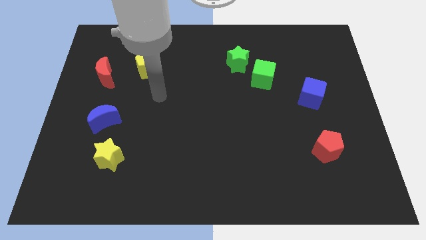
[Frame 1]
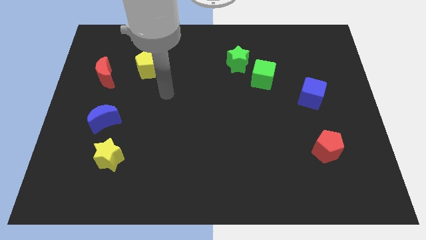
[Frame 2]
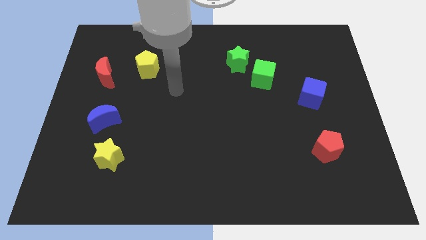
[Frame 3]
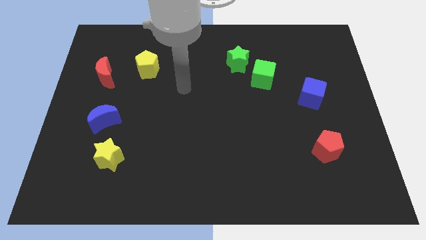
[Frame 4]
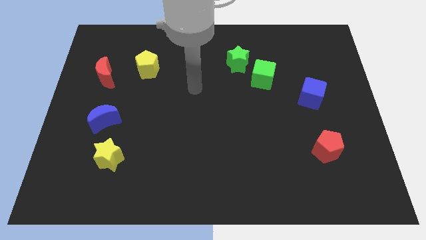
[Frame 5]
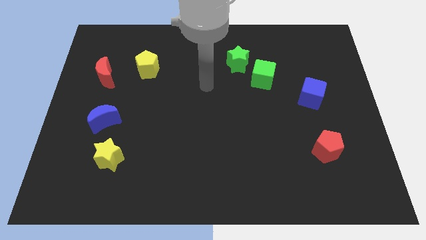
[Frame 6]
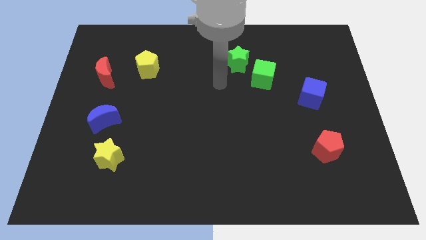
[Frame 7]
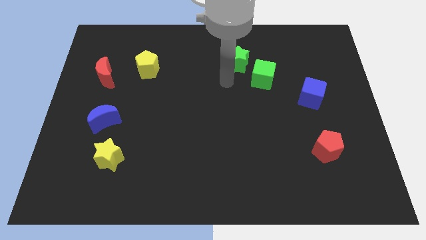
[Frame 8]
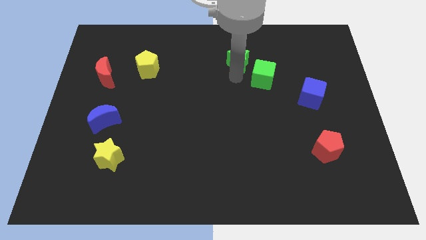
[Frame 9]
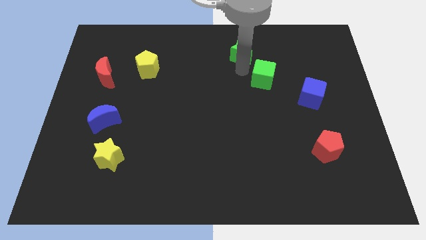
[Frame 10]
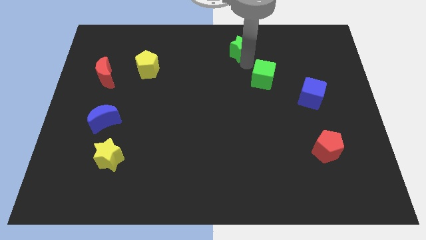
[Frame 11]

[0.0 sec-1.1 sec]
separate the green cube from the green star

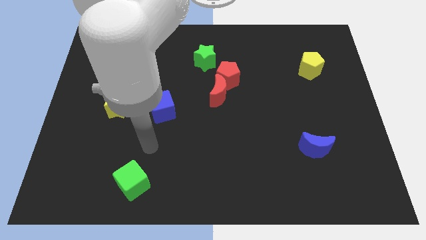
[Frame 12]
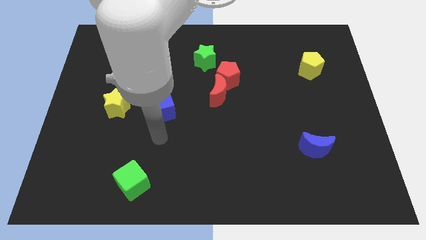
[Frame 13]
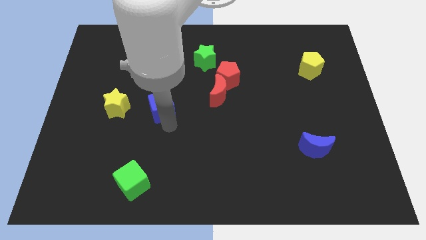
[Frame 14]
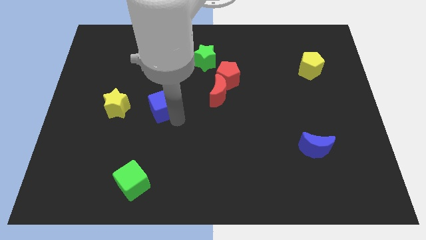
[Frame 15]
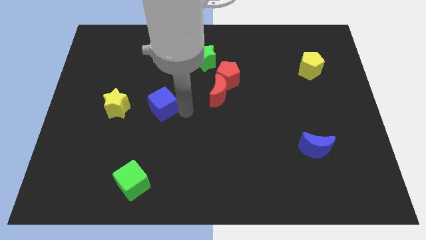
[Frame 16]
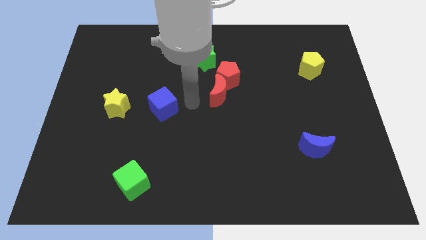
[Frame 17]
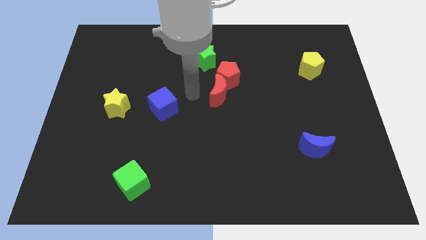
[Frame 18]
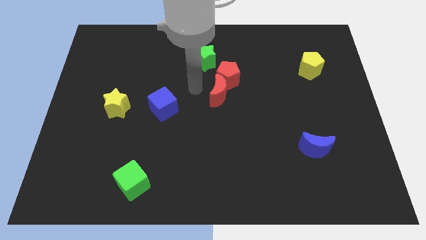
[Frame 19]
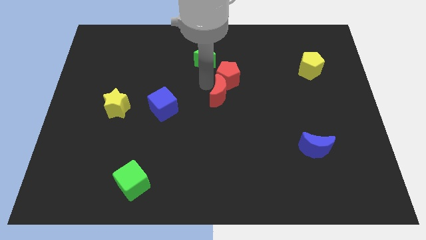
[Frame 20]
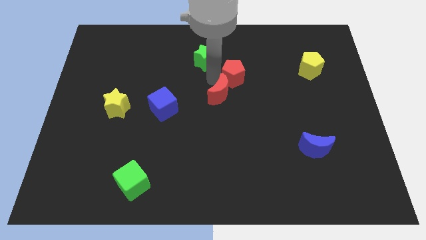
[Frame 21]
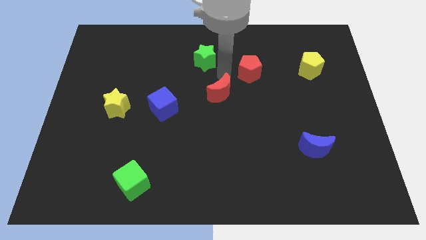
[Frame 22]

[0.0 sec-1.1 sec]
pull the red moon apart from the red pentagon

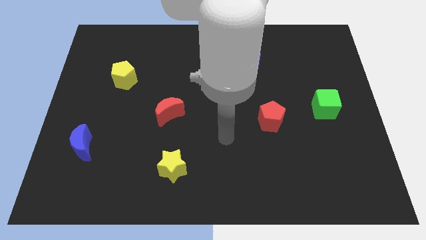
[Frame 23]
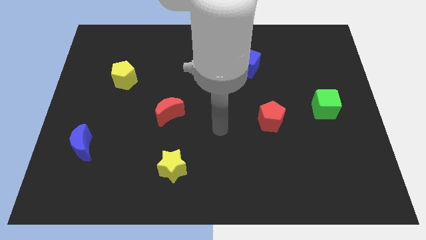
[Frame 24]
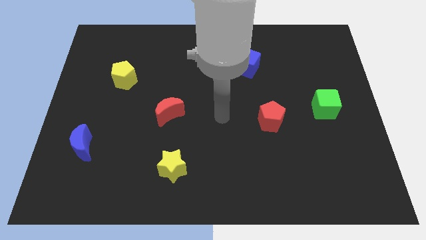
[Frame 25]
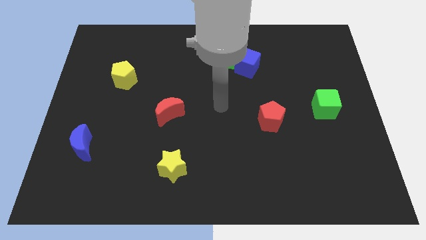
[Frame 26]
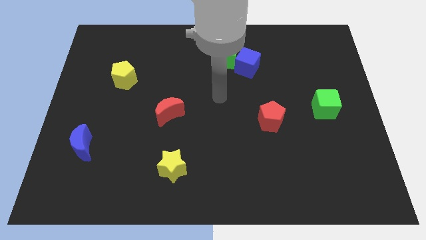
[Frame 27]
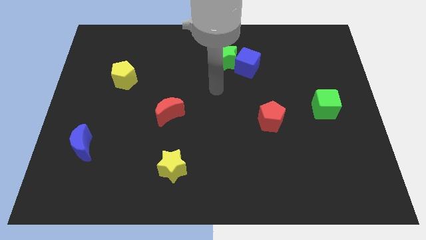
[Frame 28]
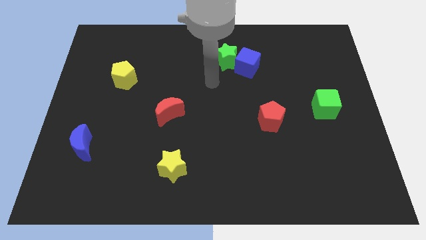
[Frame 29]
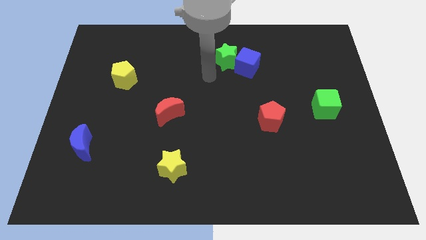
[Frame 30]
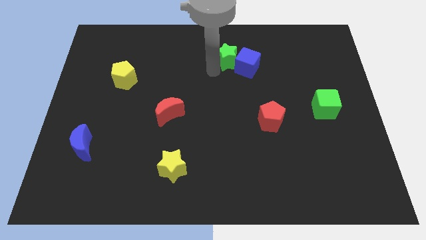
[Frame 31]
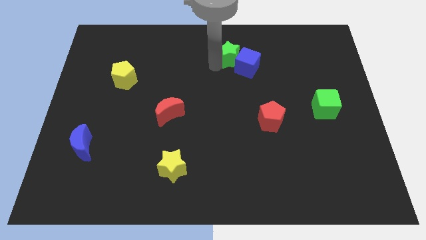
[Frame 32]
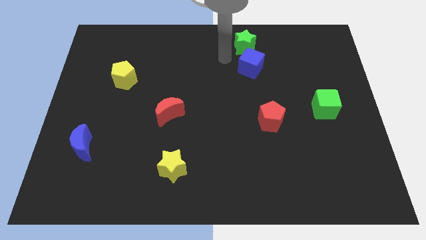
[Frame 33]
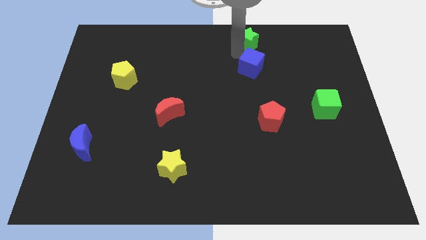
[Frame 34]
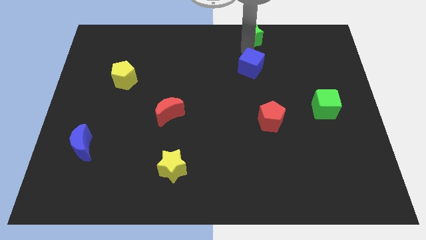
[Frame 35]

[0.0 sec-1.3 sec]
pull the blue cube apart from the green star

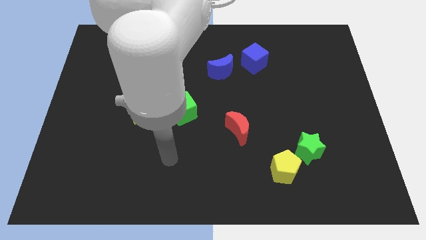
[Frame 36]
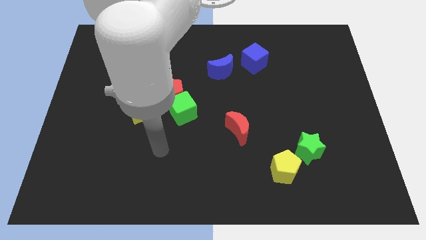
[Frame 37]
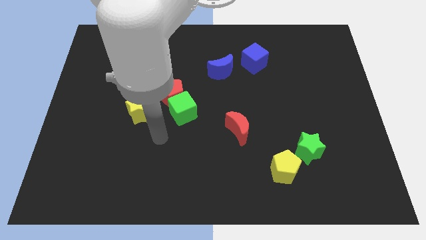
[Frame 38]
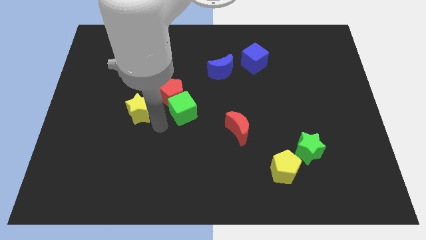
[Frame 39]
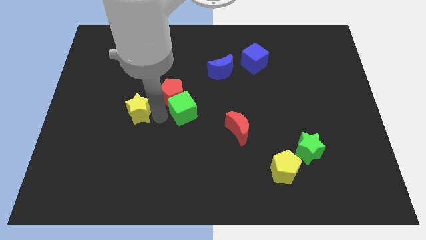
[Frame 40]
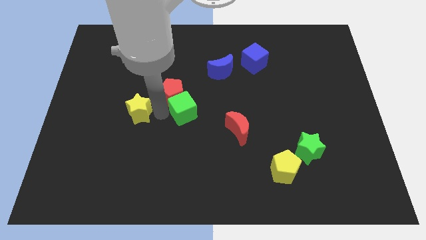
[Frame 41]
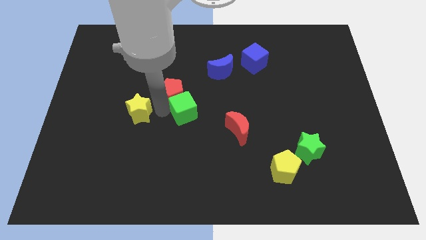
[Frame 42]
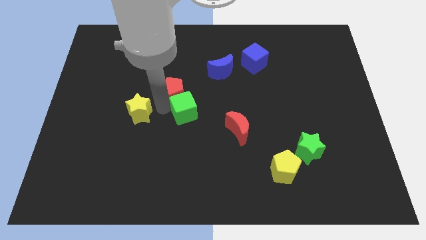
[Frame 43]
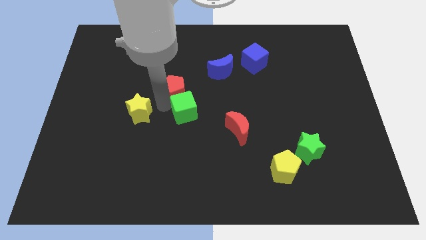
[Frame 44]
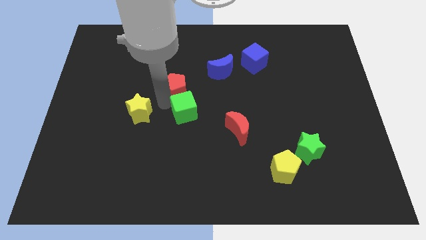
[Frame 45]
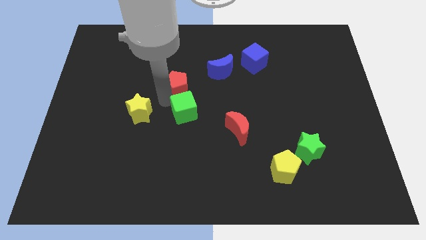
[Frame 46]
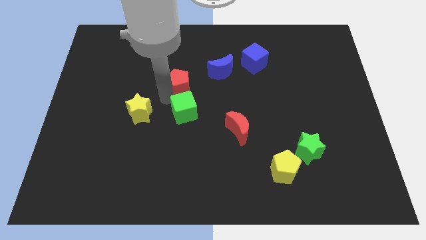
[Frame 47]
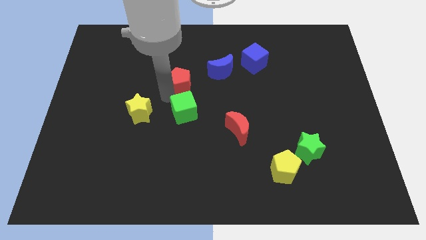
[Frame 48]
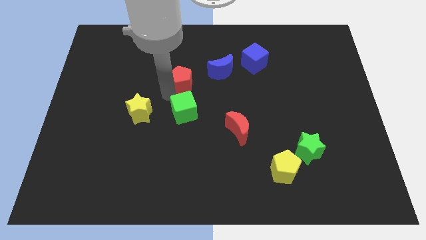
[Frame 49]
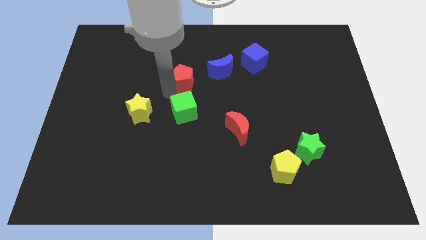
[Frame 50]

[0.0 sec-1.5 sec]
pull the red pentagon apart from the green cube and yellow star

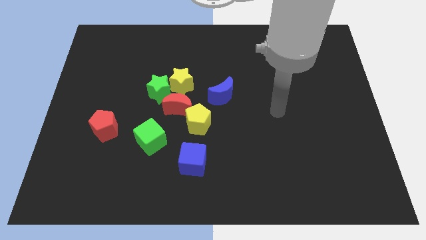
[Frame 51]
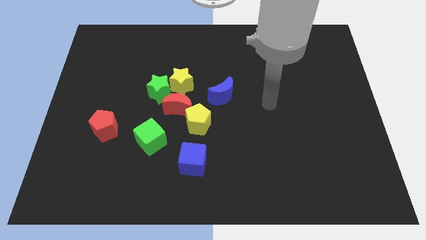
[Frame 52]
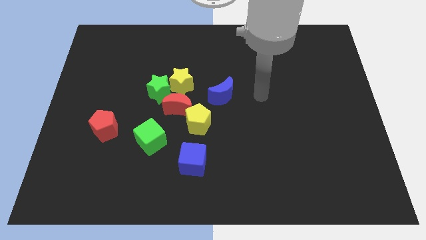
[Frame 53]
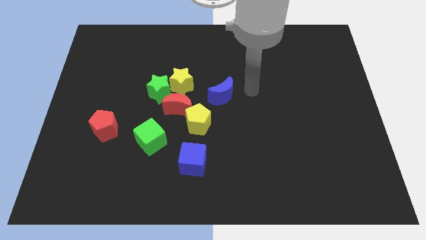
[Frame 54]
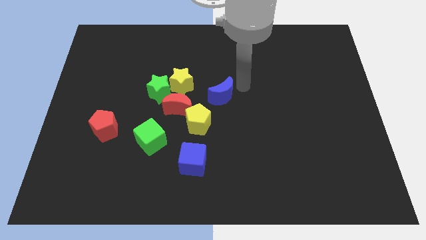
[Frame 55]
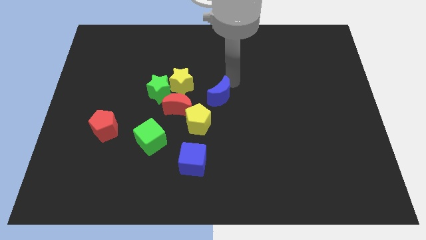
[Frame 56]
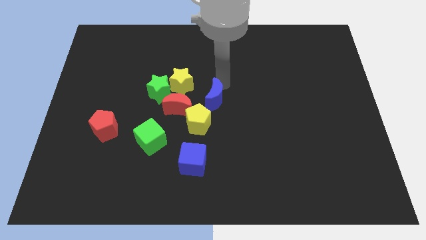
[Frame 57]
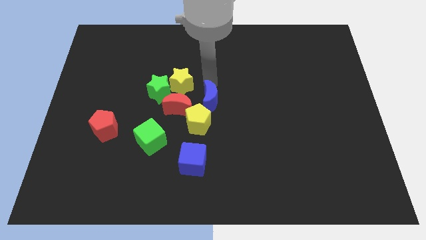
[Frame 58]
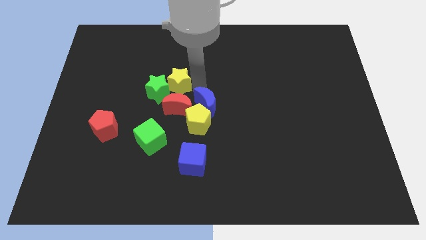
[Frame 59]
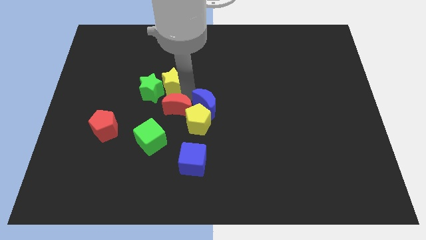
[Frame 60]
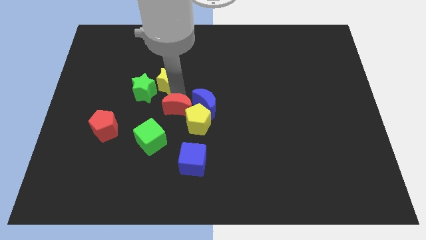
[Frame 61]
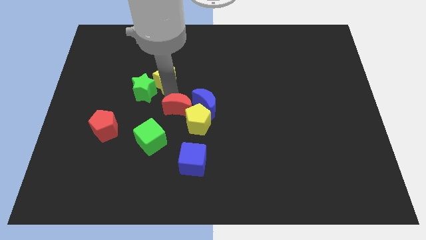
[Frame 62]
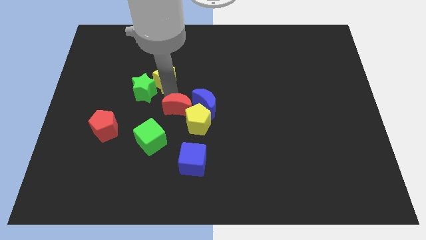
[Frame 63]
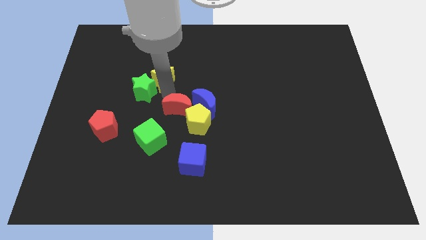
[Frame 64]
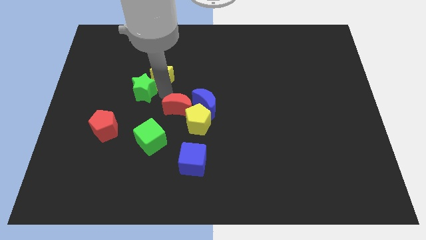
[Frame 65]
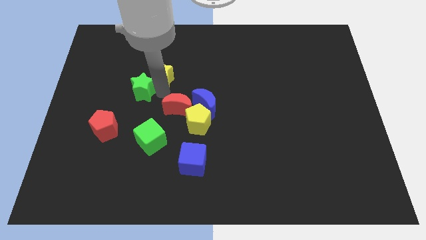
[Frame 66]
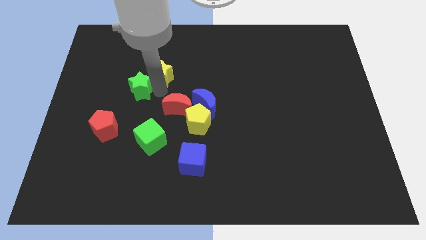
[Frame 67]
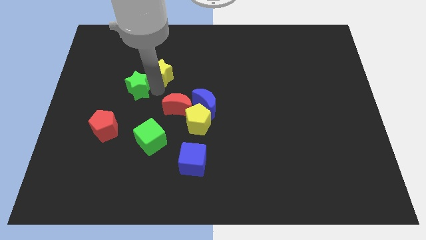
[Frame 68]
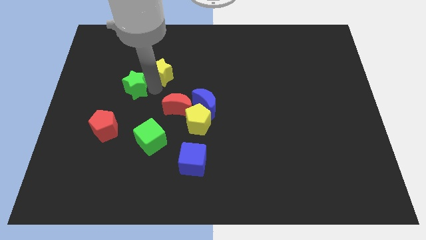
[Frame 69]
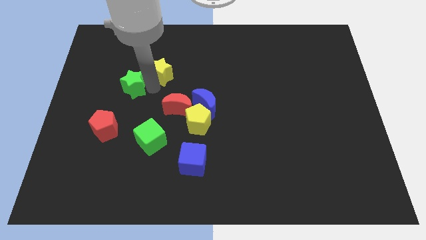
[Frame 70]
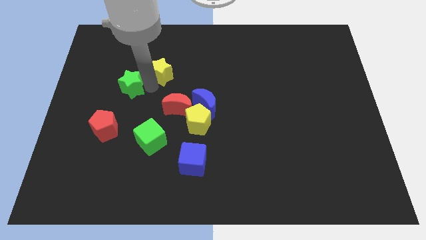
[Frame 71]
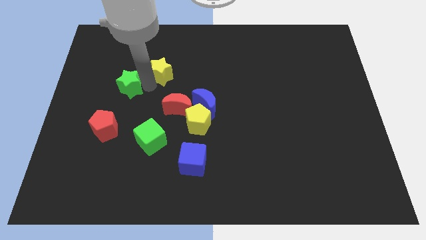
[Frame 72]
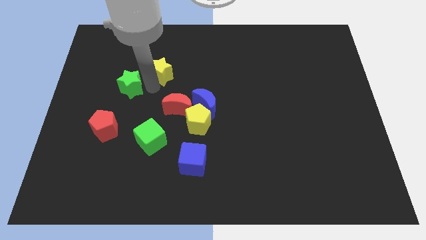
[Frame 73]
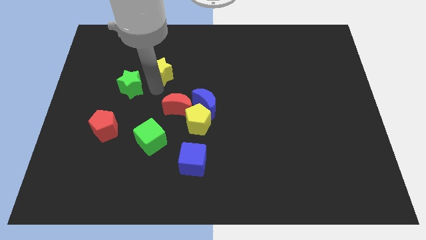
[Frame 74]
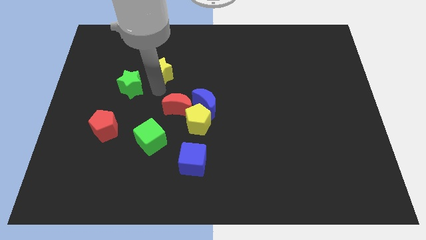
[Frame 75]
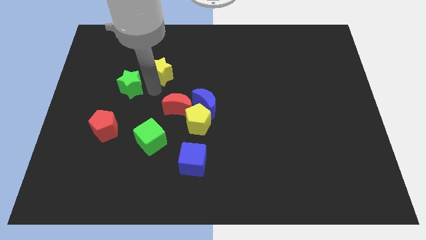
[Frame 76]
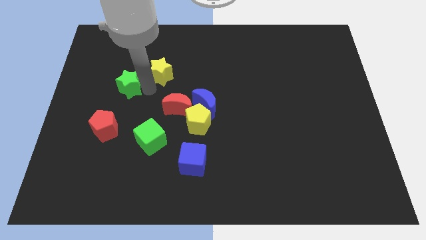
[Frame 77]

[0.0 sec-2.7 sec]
separate the green star from the yellow star and red moon

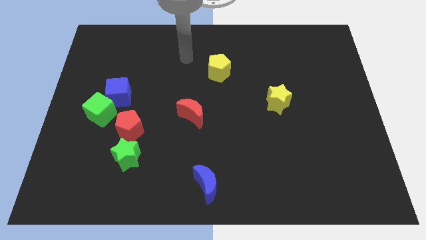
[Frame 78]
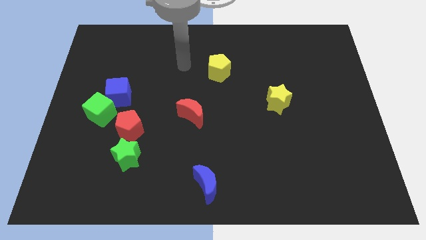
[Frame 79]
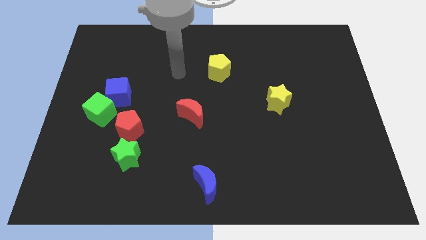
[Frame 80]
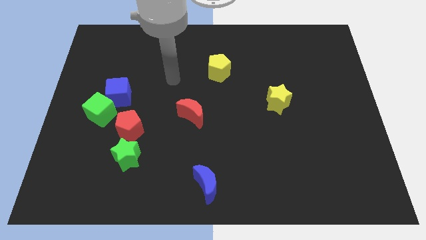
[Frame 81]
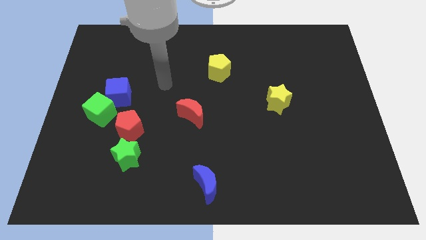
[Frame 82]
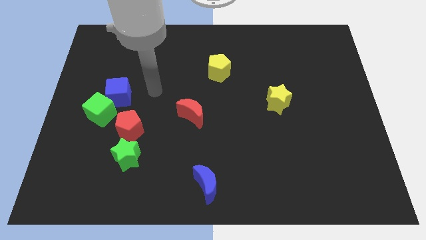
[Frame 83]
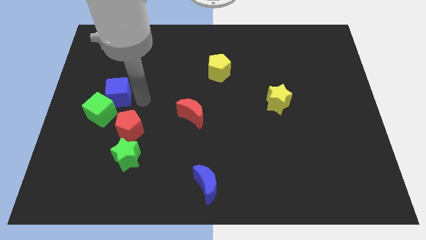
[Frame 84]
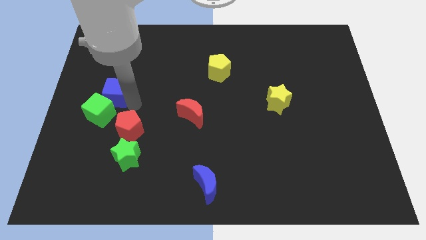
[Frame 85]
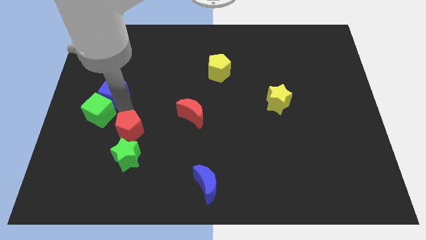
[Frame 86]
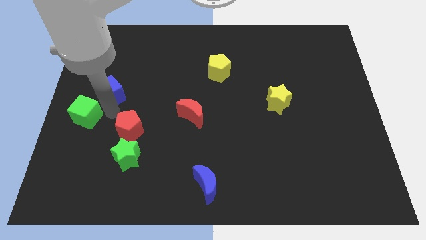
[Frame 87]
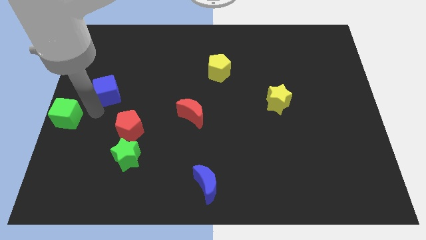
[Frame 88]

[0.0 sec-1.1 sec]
separate the blue cube from the green cube

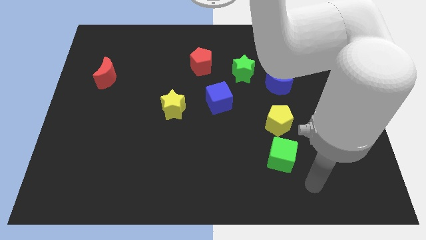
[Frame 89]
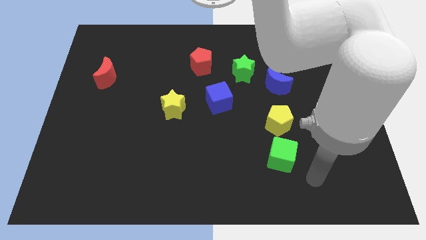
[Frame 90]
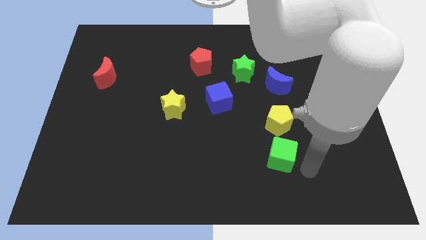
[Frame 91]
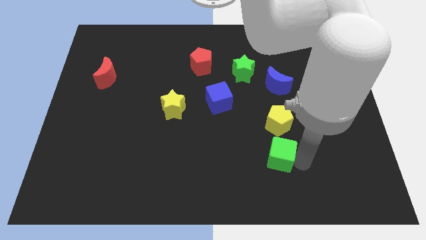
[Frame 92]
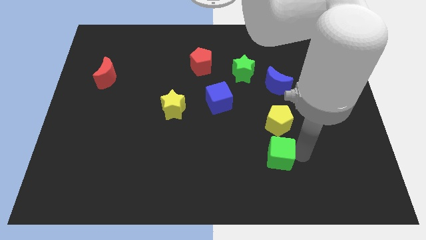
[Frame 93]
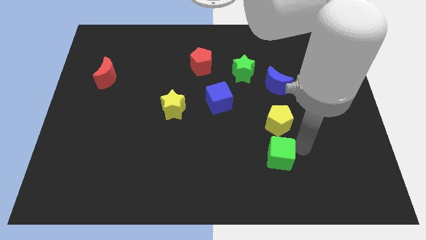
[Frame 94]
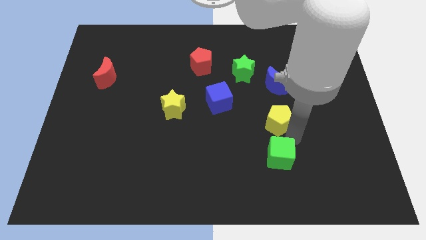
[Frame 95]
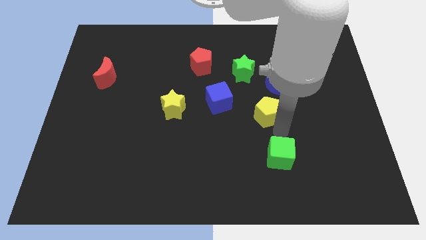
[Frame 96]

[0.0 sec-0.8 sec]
move the green cube away from the yellow pentagon
